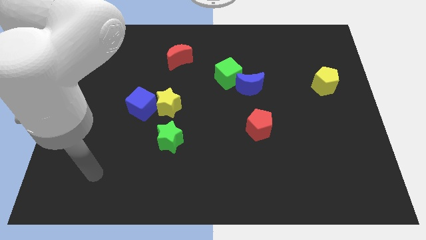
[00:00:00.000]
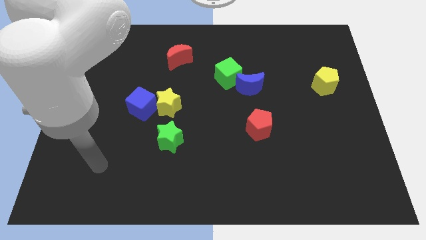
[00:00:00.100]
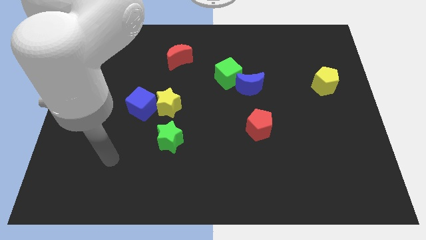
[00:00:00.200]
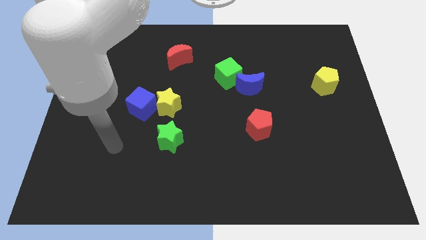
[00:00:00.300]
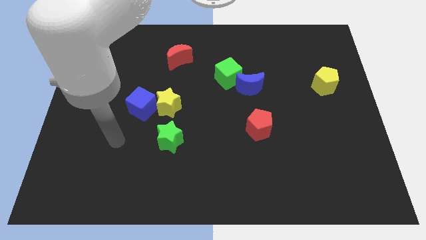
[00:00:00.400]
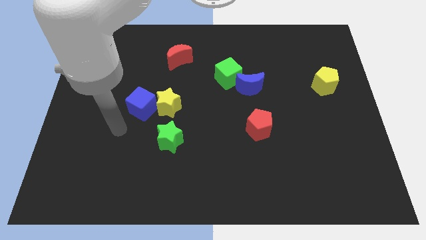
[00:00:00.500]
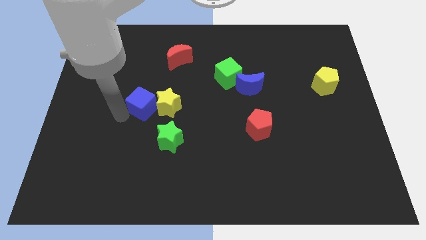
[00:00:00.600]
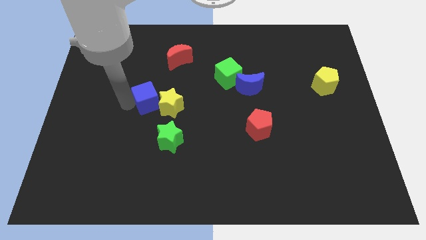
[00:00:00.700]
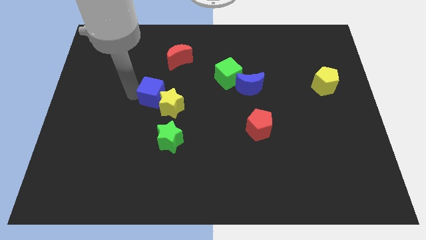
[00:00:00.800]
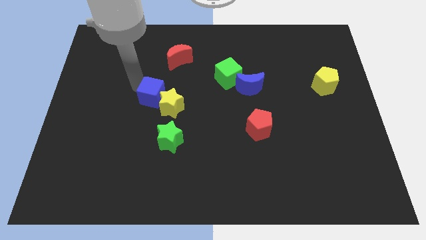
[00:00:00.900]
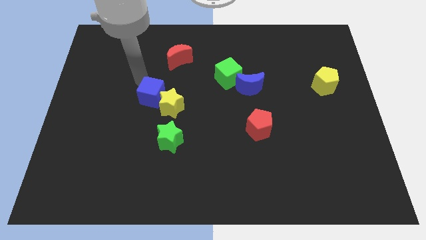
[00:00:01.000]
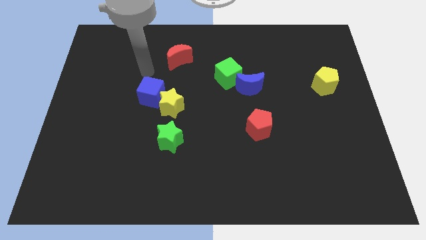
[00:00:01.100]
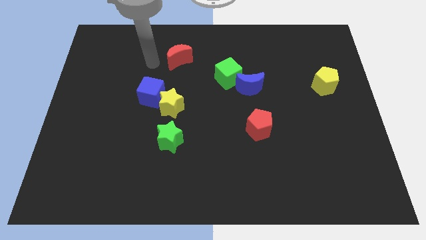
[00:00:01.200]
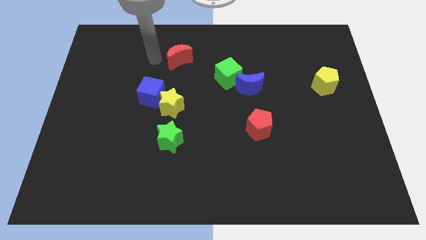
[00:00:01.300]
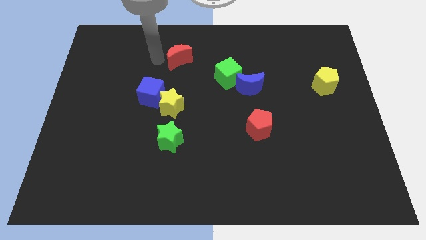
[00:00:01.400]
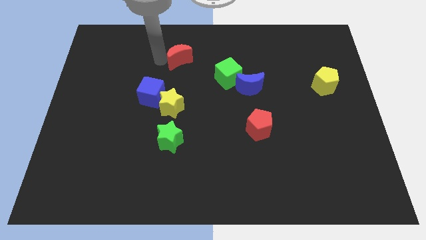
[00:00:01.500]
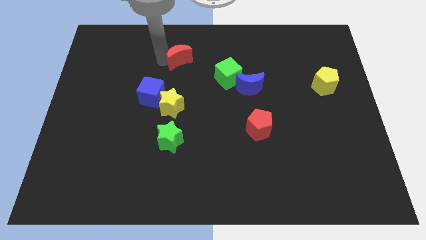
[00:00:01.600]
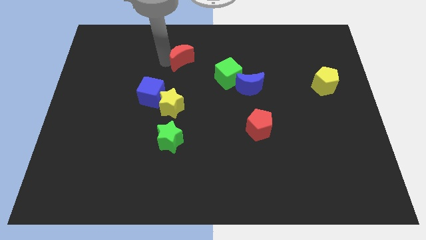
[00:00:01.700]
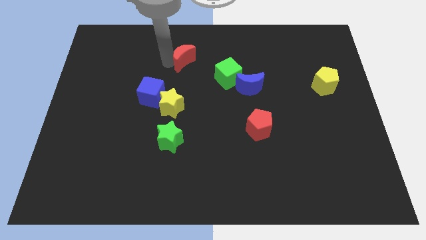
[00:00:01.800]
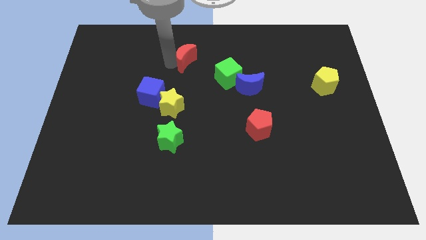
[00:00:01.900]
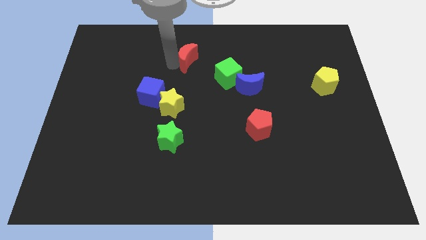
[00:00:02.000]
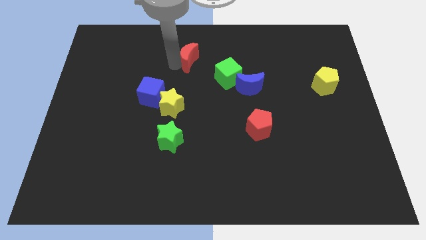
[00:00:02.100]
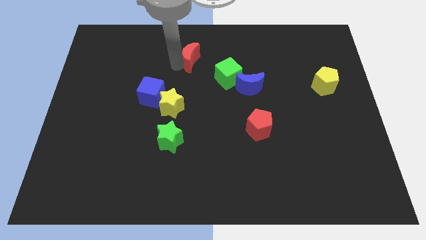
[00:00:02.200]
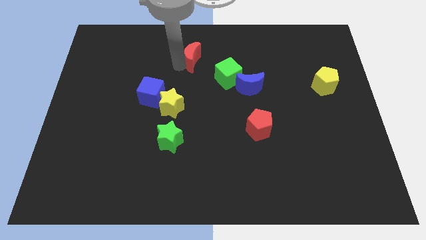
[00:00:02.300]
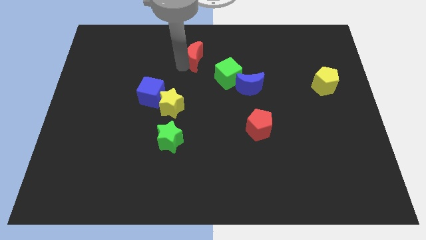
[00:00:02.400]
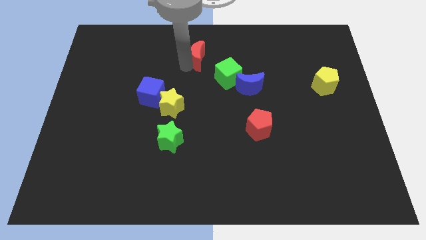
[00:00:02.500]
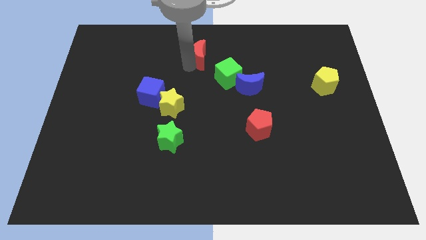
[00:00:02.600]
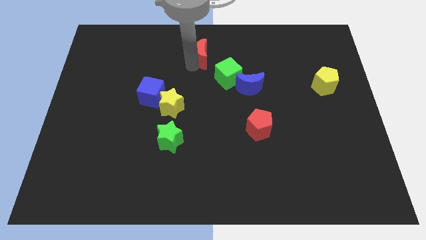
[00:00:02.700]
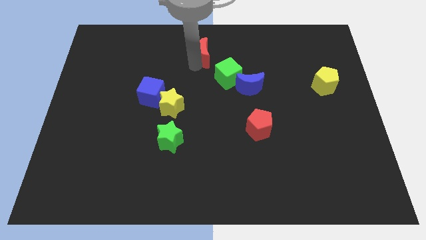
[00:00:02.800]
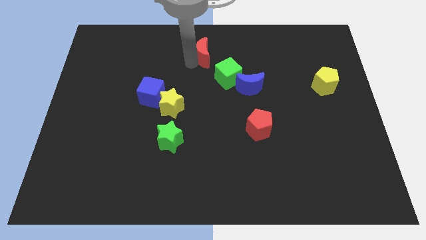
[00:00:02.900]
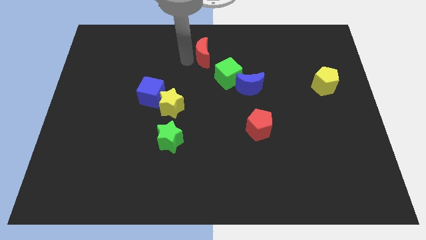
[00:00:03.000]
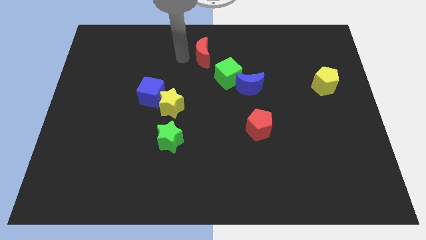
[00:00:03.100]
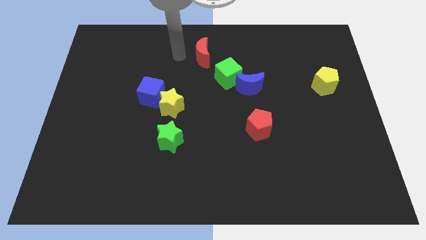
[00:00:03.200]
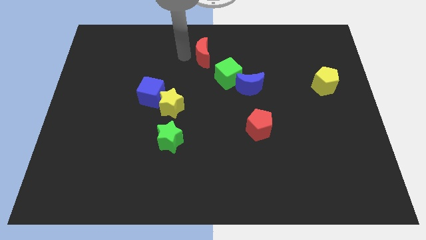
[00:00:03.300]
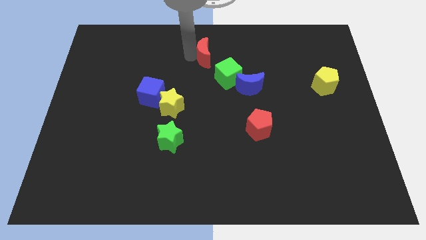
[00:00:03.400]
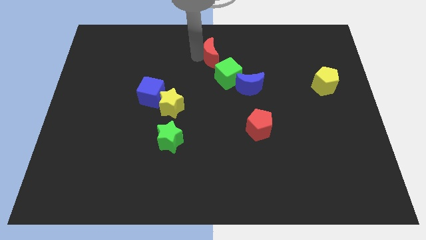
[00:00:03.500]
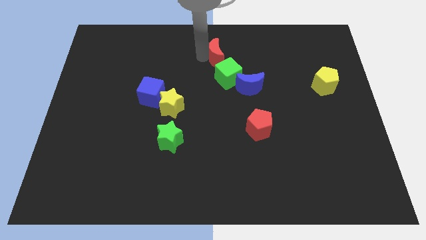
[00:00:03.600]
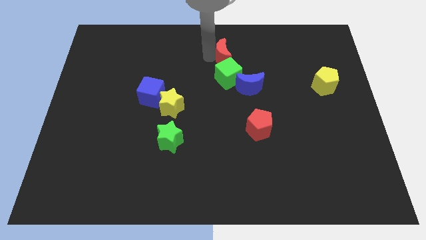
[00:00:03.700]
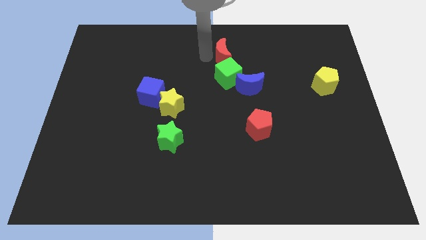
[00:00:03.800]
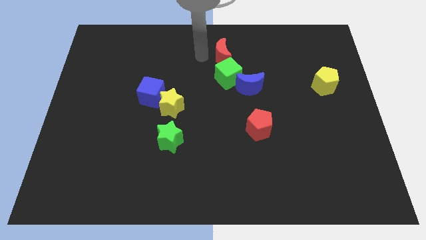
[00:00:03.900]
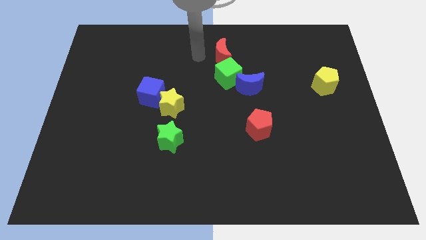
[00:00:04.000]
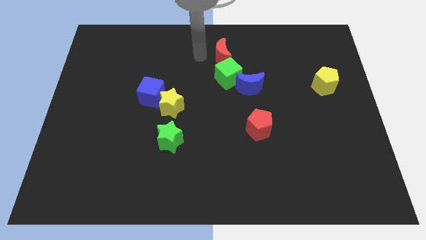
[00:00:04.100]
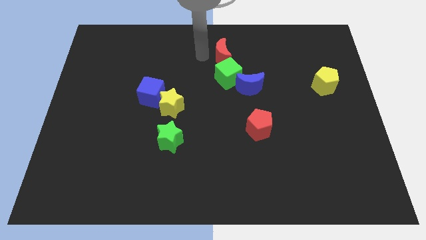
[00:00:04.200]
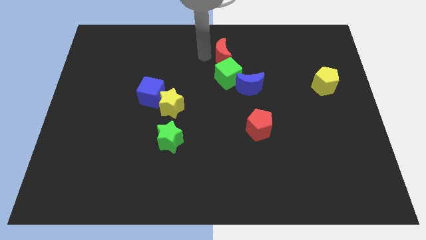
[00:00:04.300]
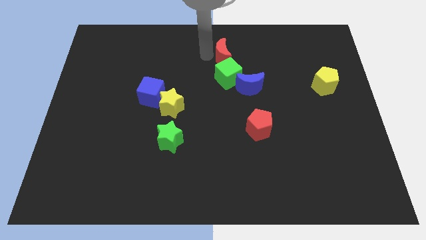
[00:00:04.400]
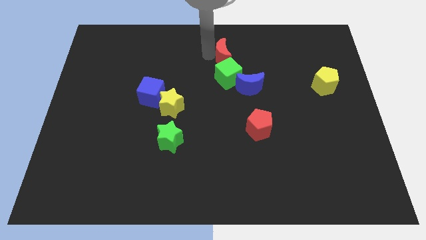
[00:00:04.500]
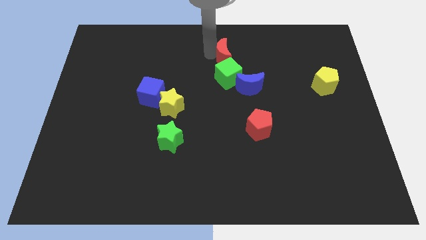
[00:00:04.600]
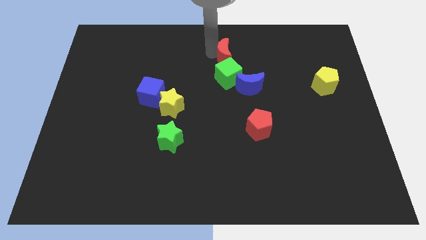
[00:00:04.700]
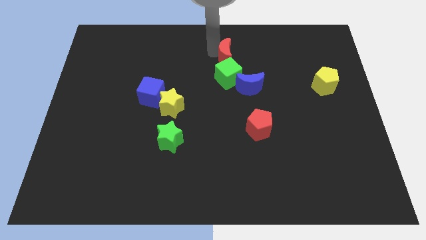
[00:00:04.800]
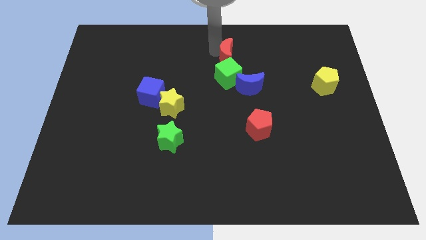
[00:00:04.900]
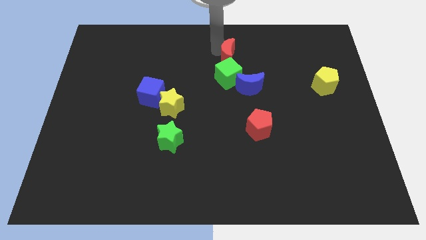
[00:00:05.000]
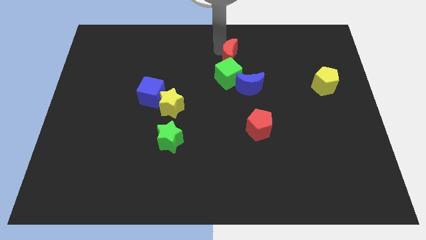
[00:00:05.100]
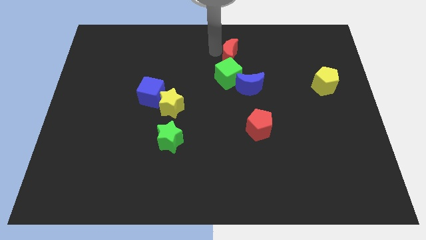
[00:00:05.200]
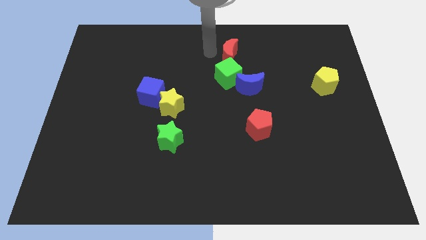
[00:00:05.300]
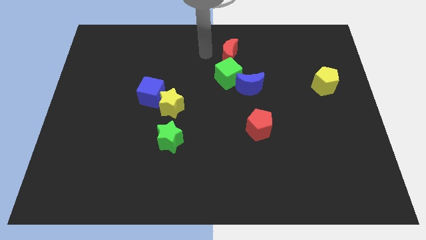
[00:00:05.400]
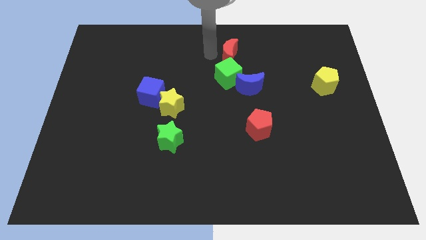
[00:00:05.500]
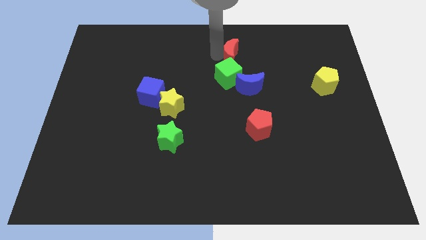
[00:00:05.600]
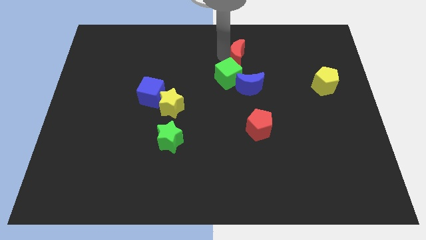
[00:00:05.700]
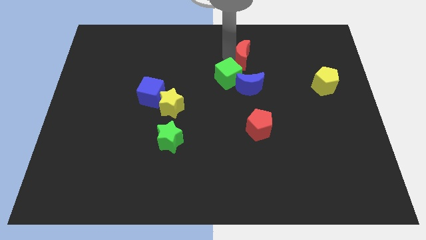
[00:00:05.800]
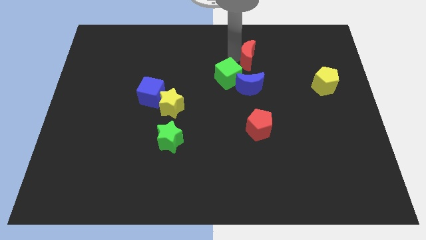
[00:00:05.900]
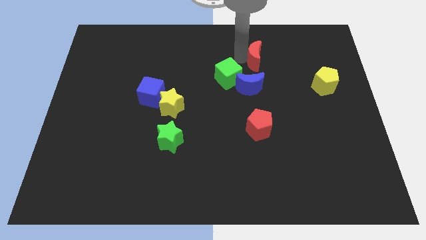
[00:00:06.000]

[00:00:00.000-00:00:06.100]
slide the red moon to the right

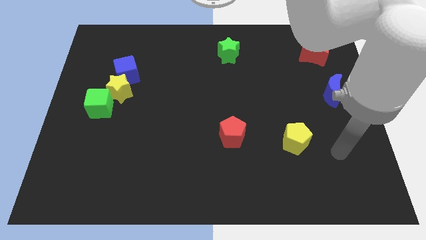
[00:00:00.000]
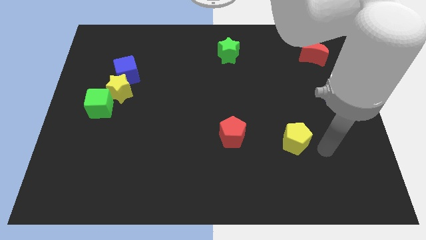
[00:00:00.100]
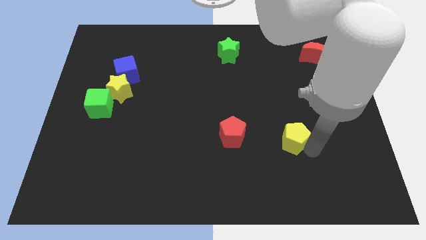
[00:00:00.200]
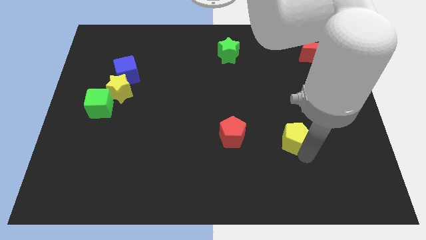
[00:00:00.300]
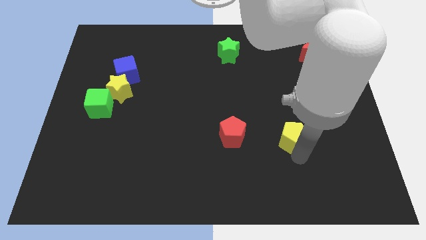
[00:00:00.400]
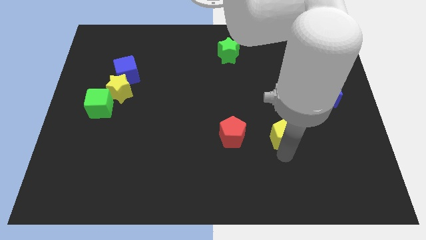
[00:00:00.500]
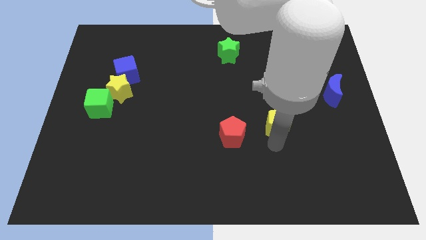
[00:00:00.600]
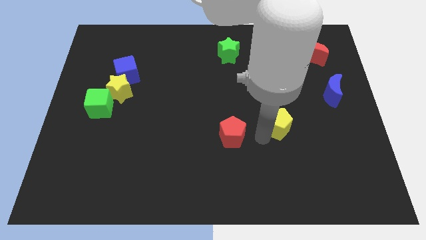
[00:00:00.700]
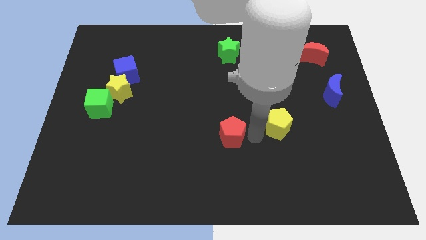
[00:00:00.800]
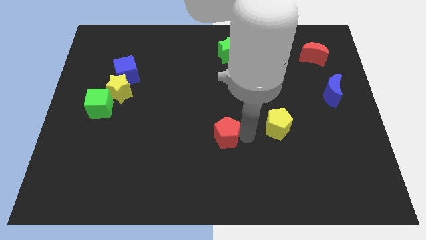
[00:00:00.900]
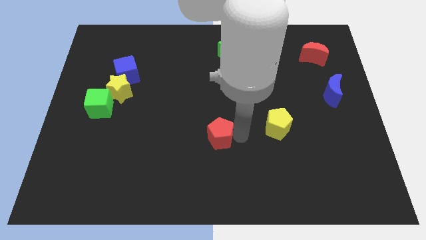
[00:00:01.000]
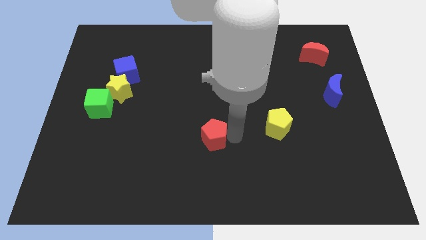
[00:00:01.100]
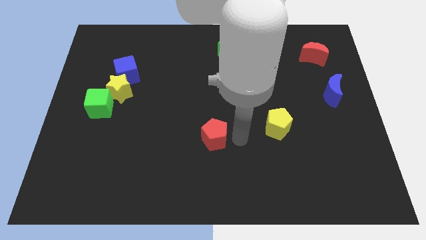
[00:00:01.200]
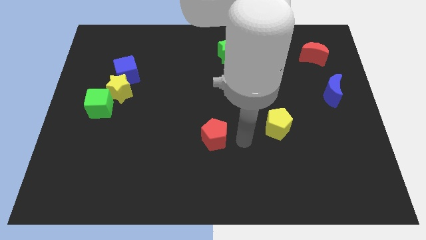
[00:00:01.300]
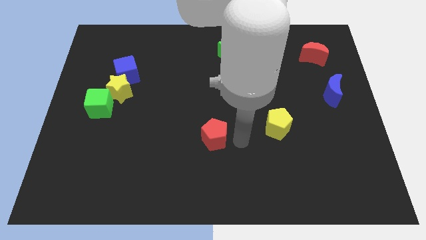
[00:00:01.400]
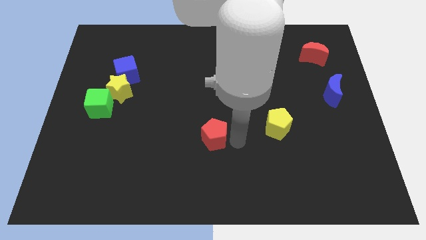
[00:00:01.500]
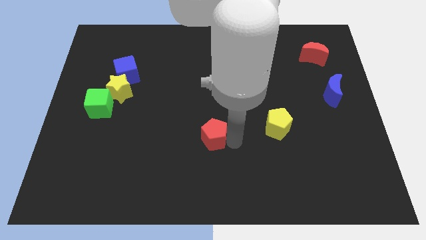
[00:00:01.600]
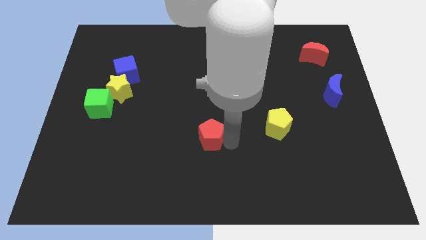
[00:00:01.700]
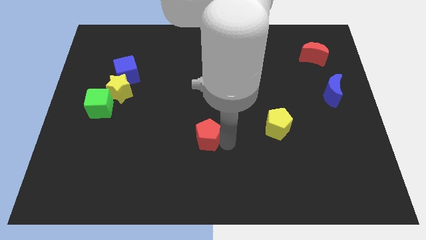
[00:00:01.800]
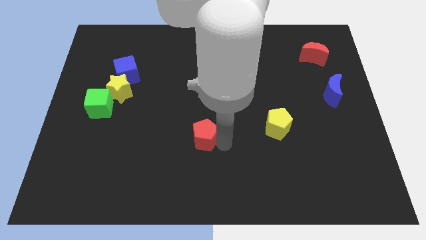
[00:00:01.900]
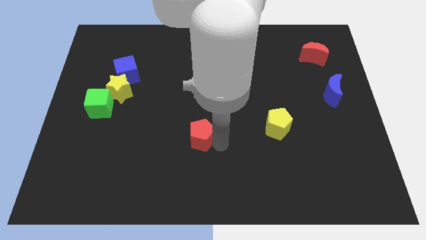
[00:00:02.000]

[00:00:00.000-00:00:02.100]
push the red pentagon to the left a little bit
